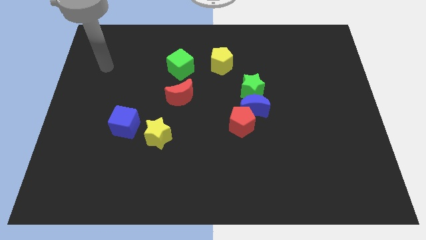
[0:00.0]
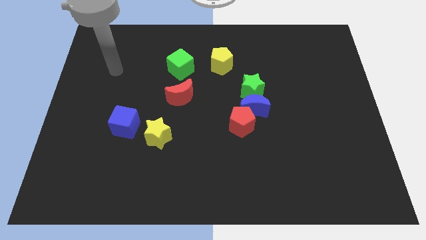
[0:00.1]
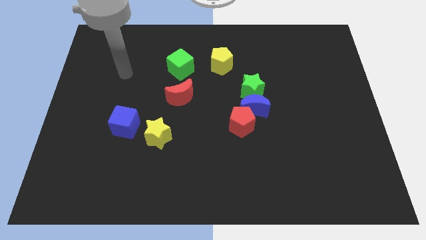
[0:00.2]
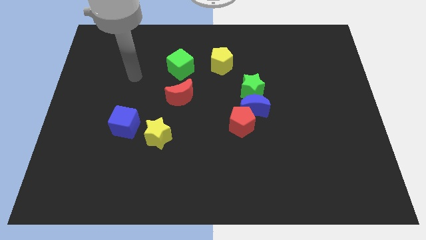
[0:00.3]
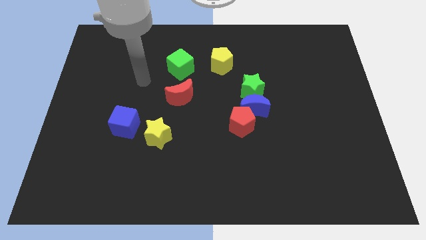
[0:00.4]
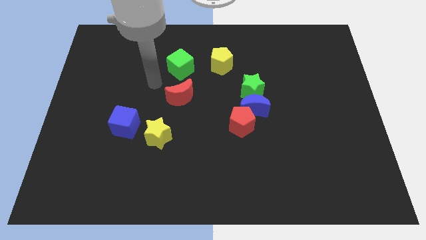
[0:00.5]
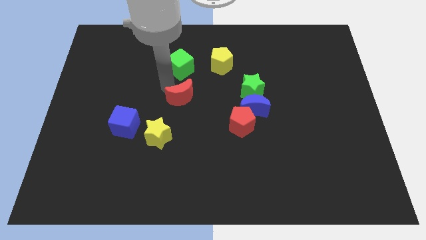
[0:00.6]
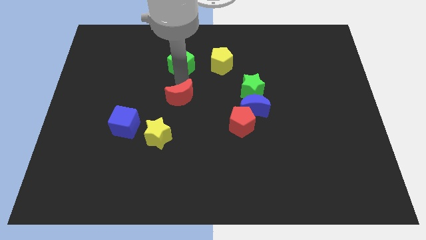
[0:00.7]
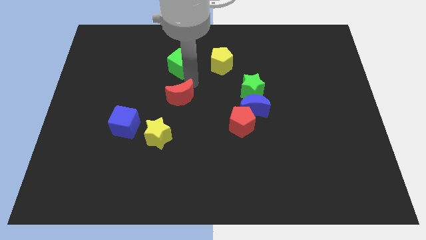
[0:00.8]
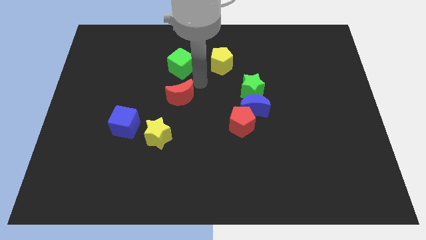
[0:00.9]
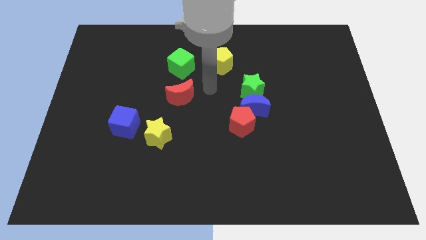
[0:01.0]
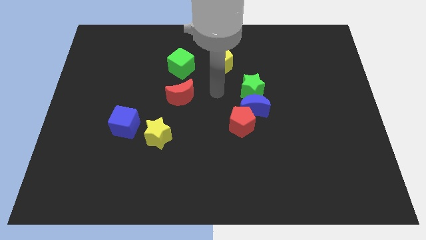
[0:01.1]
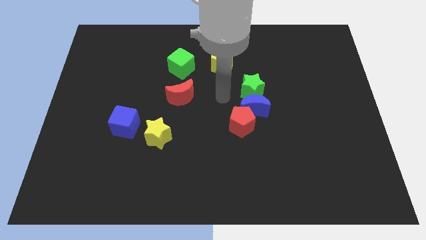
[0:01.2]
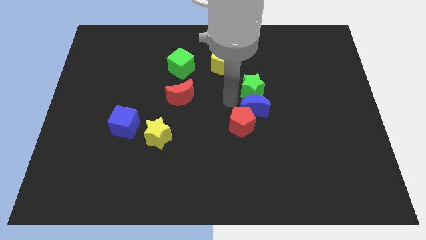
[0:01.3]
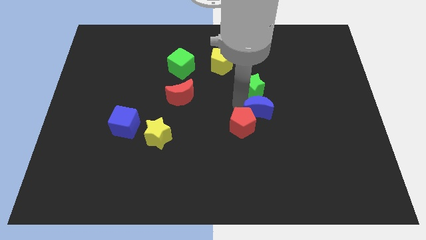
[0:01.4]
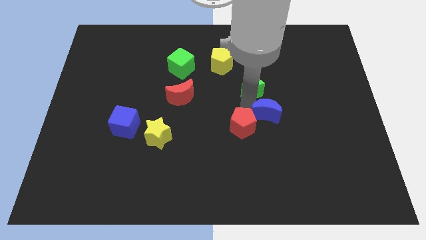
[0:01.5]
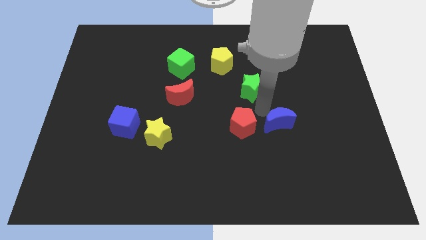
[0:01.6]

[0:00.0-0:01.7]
pull the green star apart from the blue moon

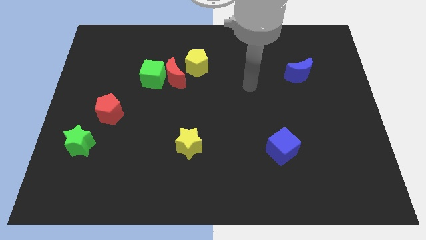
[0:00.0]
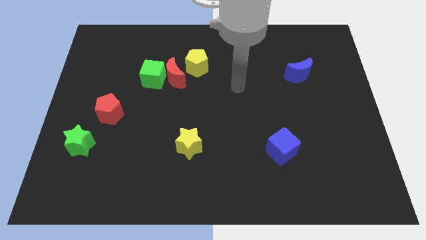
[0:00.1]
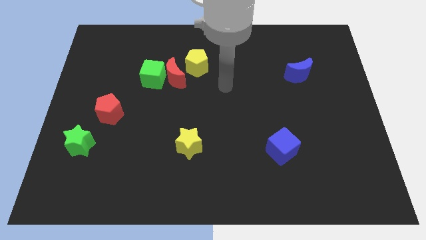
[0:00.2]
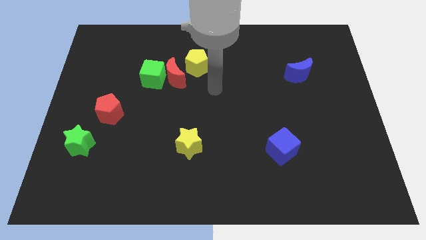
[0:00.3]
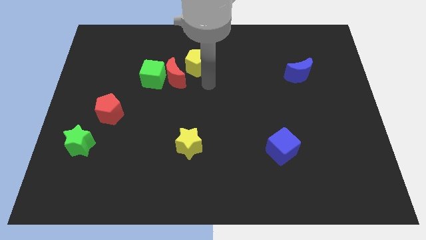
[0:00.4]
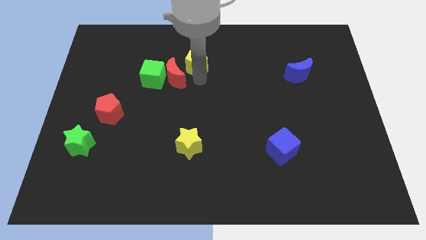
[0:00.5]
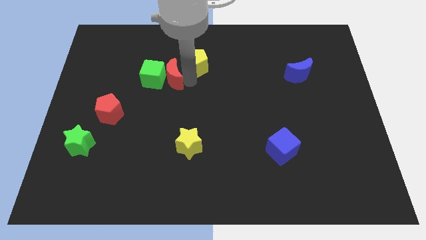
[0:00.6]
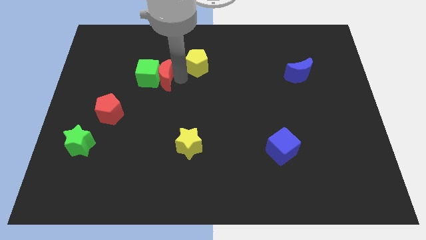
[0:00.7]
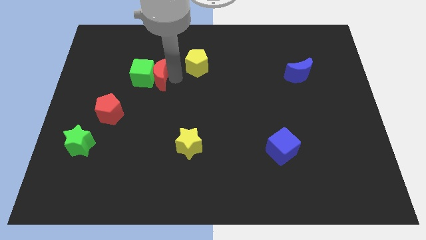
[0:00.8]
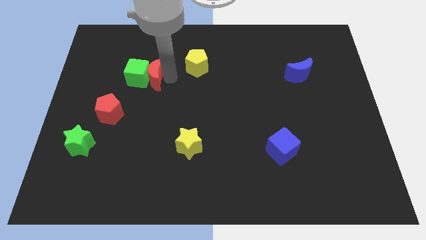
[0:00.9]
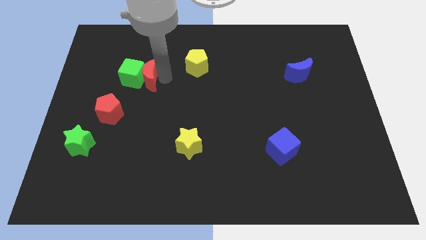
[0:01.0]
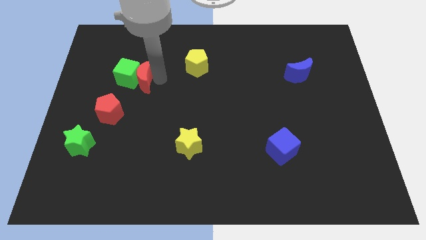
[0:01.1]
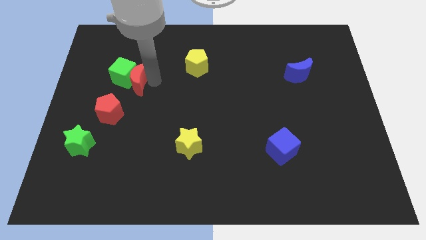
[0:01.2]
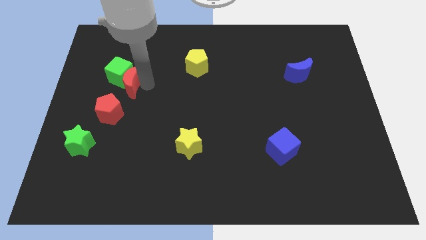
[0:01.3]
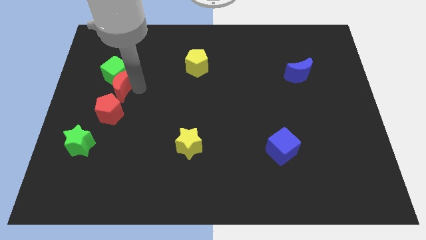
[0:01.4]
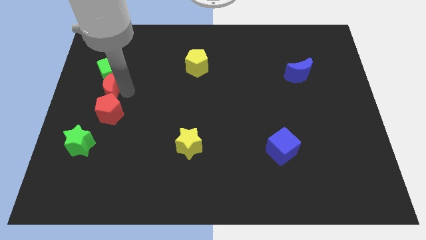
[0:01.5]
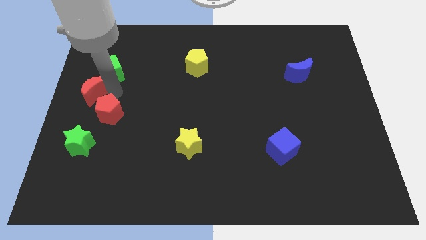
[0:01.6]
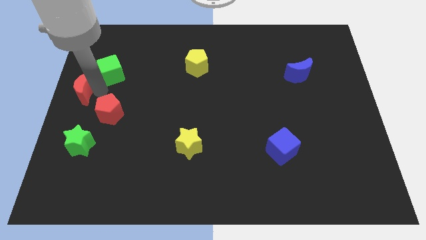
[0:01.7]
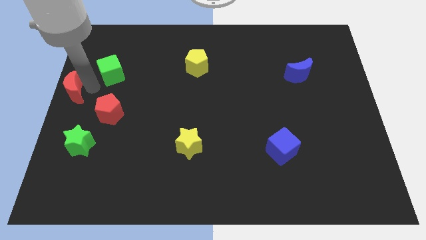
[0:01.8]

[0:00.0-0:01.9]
move the green cube away from the red moon

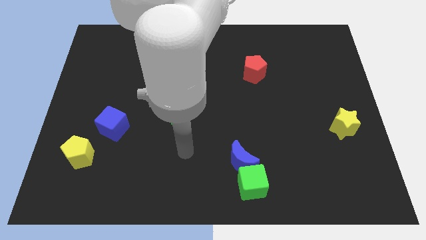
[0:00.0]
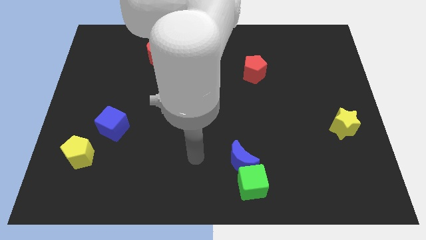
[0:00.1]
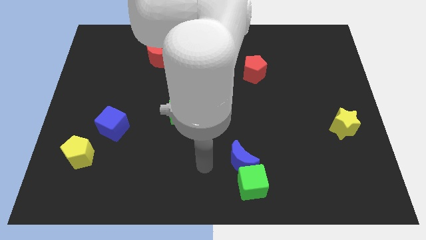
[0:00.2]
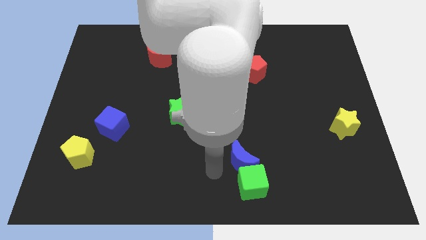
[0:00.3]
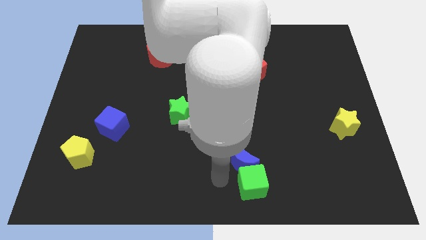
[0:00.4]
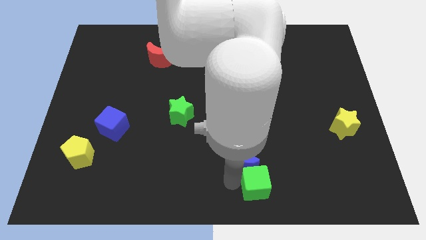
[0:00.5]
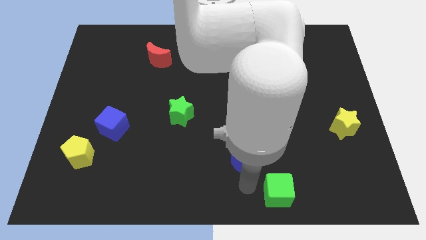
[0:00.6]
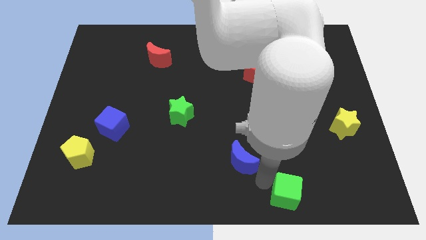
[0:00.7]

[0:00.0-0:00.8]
separate the blue moon from the green cube

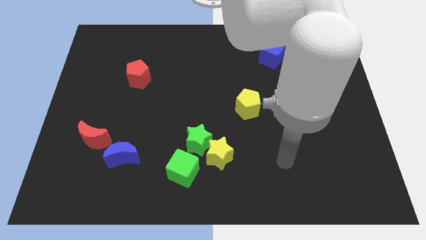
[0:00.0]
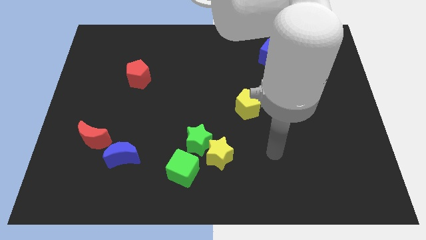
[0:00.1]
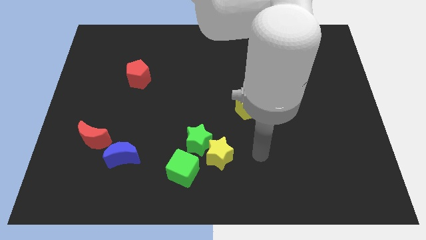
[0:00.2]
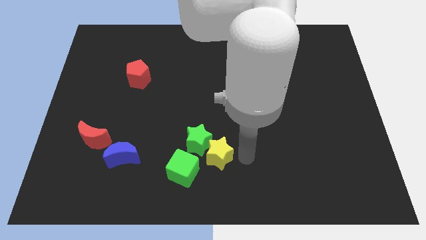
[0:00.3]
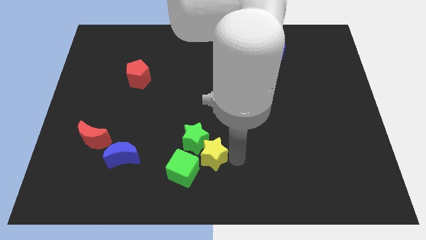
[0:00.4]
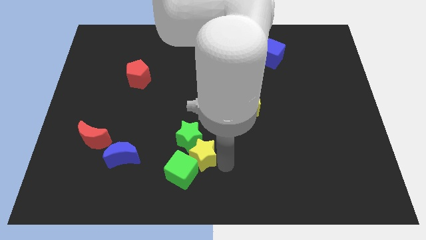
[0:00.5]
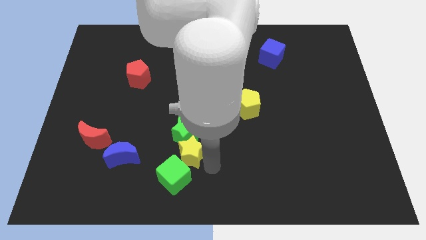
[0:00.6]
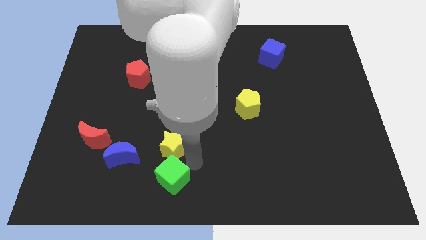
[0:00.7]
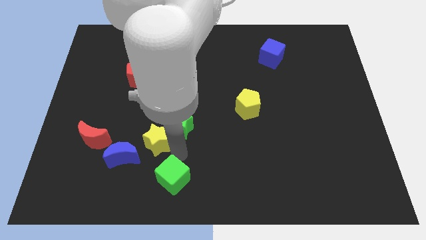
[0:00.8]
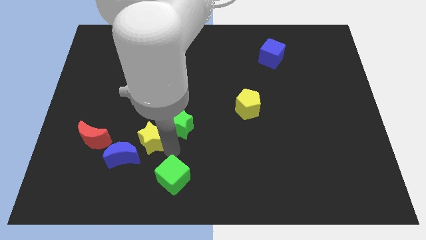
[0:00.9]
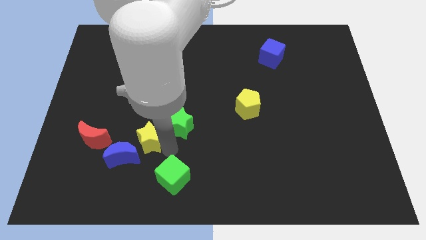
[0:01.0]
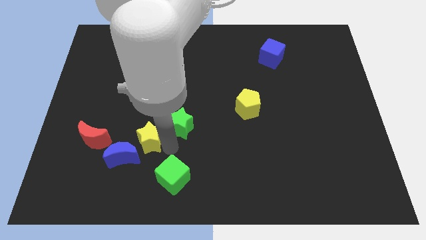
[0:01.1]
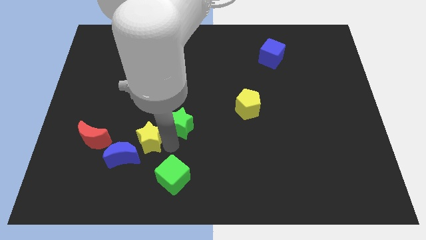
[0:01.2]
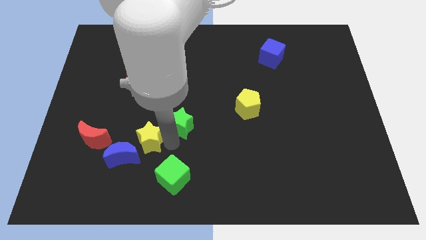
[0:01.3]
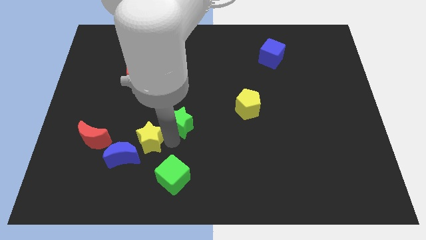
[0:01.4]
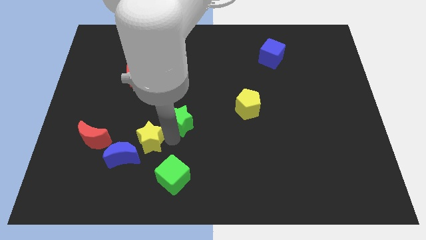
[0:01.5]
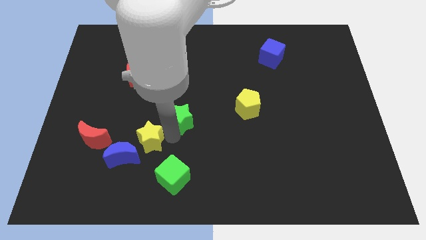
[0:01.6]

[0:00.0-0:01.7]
pull the green star apart from the yellow star and green cube

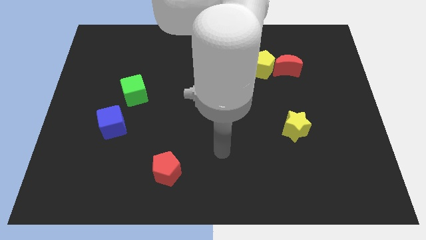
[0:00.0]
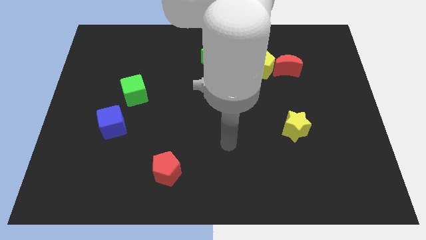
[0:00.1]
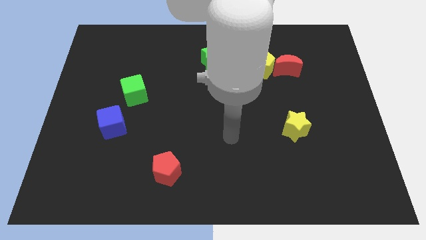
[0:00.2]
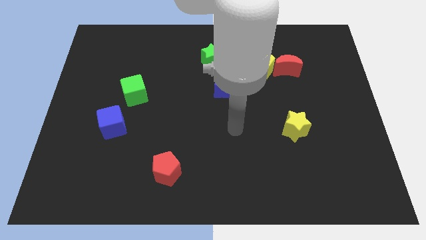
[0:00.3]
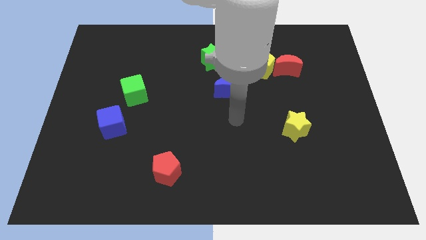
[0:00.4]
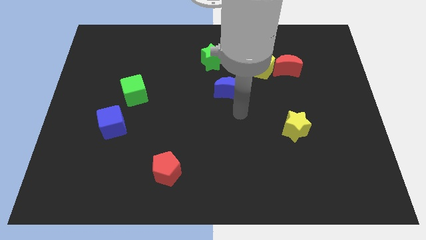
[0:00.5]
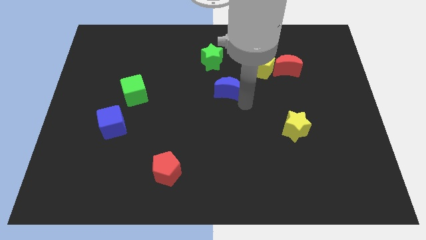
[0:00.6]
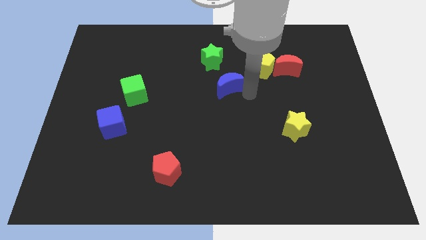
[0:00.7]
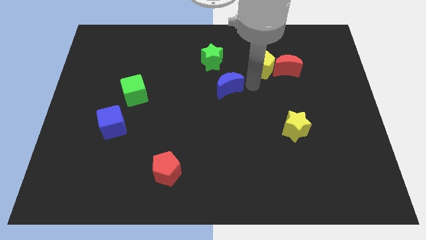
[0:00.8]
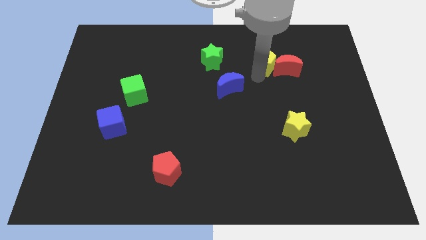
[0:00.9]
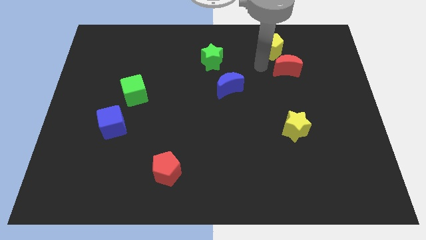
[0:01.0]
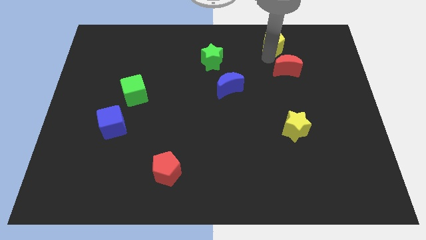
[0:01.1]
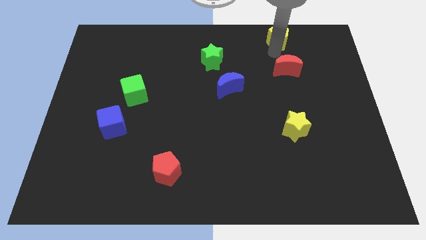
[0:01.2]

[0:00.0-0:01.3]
pull the red moon apart from the yellow pentagon

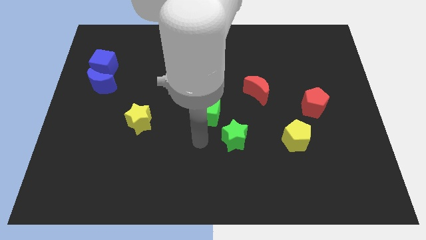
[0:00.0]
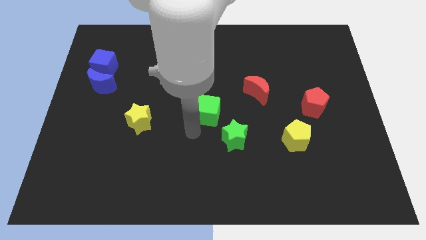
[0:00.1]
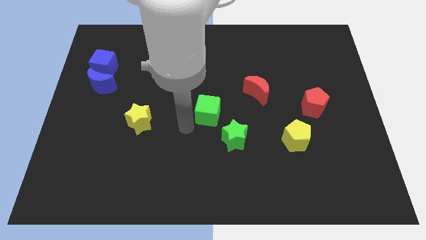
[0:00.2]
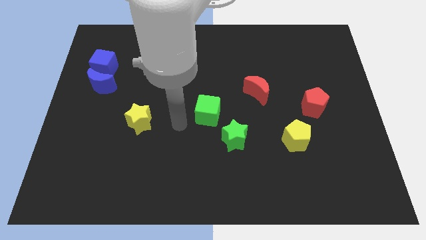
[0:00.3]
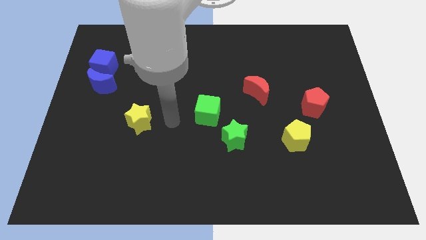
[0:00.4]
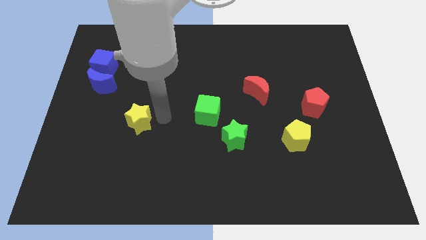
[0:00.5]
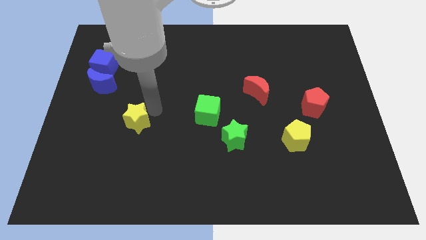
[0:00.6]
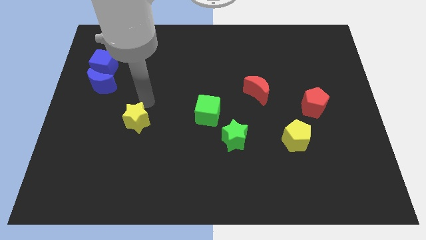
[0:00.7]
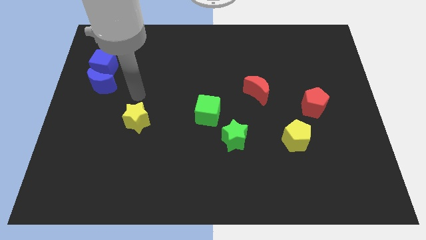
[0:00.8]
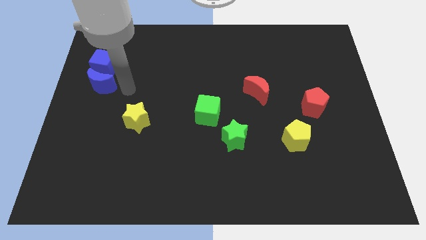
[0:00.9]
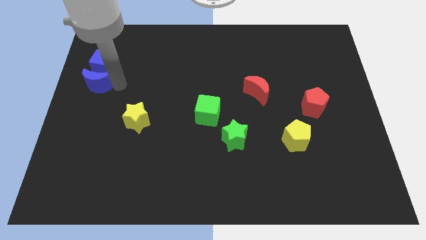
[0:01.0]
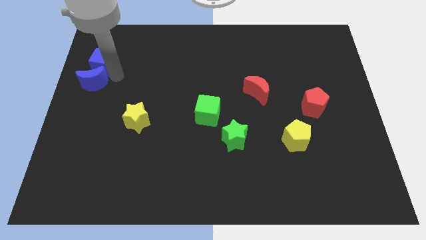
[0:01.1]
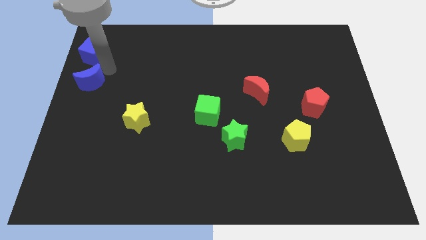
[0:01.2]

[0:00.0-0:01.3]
pull the blue moon apart from the blue cube

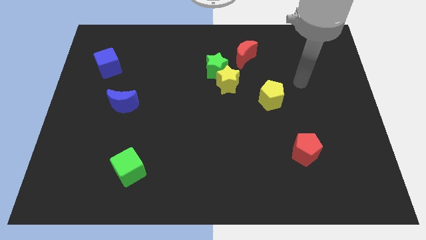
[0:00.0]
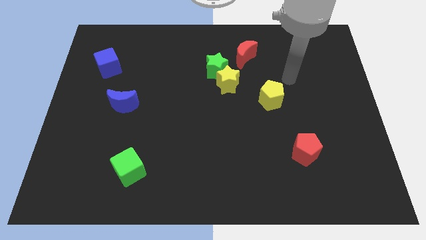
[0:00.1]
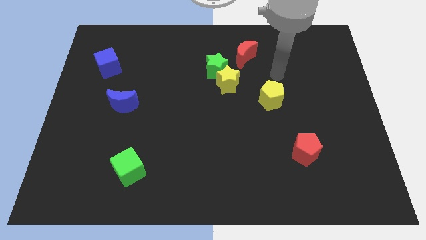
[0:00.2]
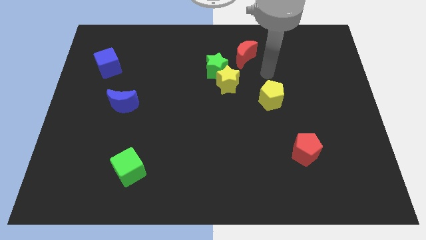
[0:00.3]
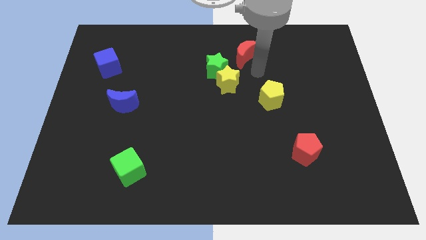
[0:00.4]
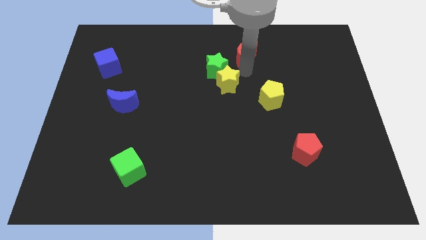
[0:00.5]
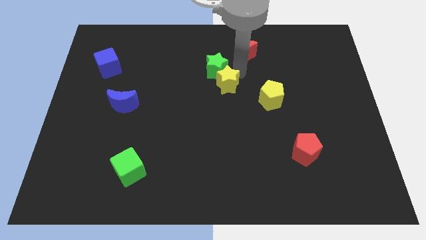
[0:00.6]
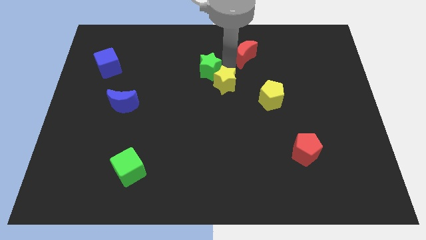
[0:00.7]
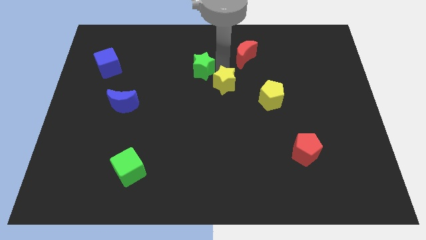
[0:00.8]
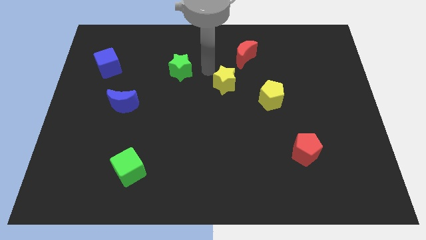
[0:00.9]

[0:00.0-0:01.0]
pull the yellow star apart from the green star
